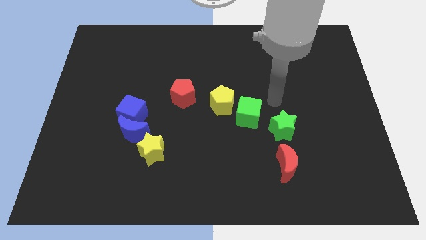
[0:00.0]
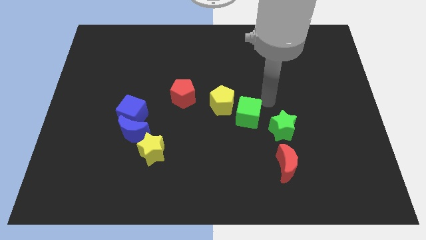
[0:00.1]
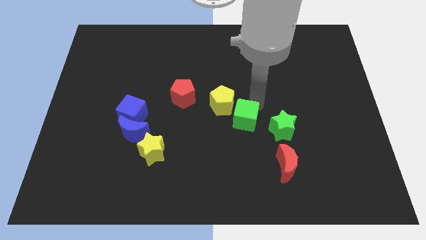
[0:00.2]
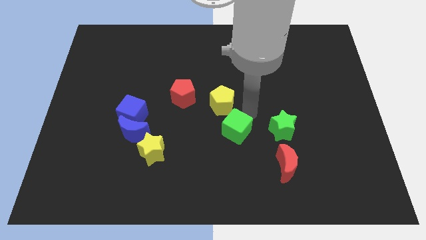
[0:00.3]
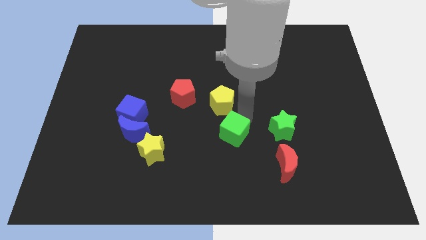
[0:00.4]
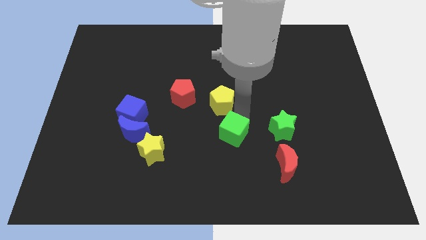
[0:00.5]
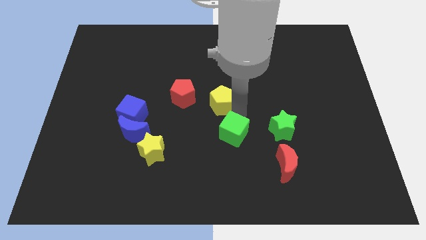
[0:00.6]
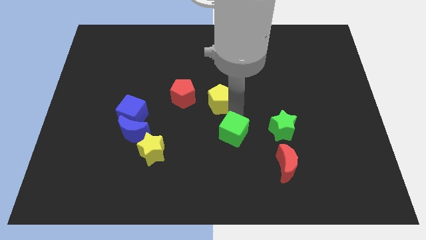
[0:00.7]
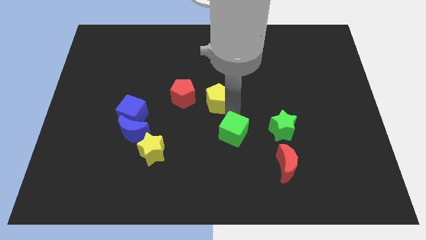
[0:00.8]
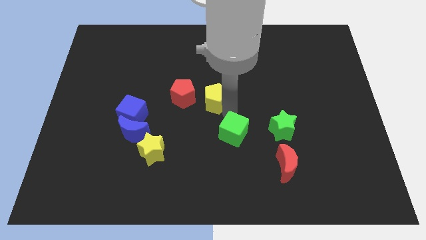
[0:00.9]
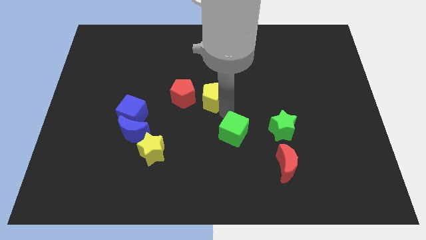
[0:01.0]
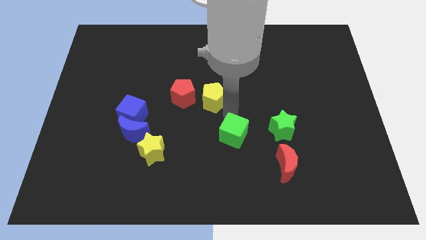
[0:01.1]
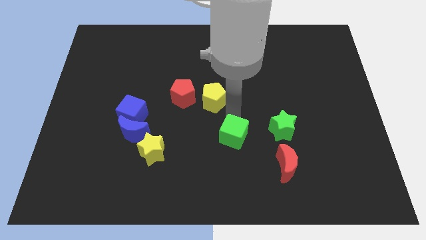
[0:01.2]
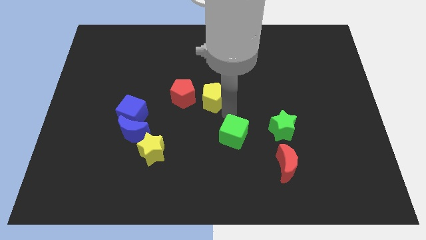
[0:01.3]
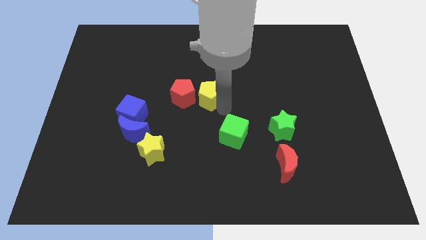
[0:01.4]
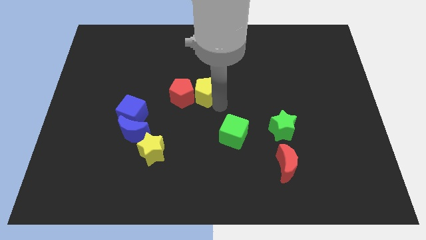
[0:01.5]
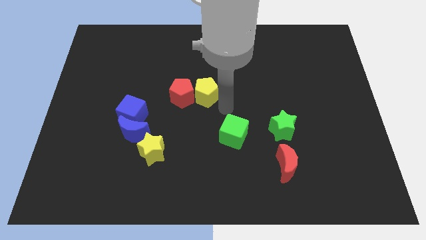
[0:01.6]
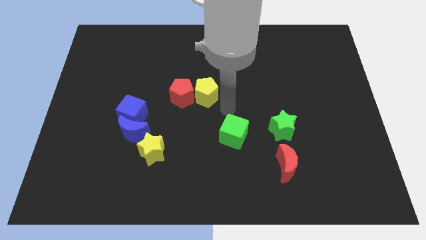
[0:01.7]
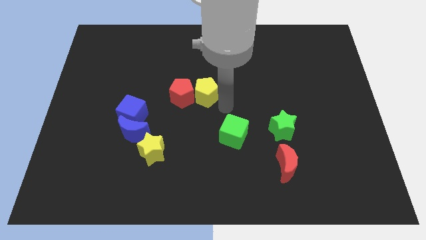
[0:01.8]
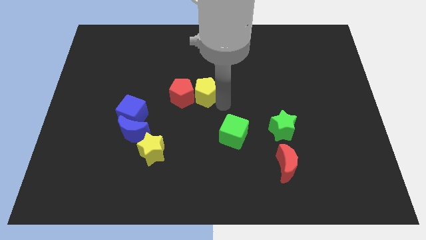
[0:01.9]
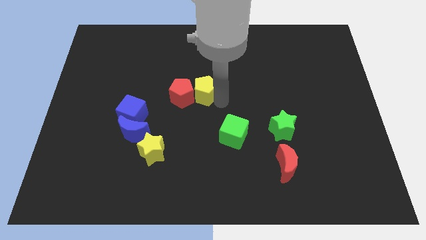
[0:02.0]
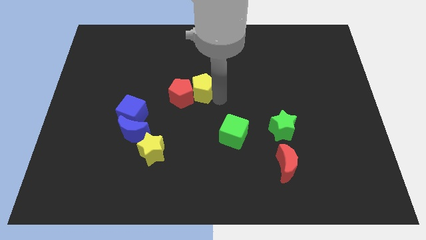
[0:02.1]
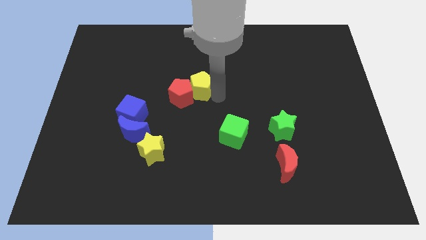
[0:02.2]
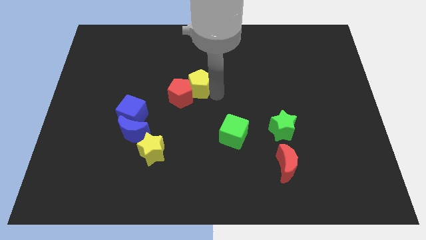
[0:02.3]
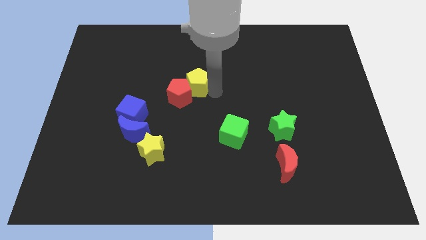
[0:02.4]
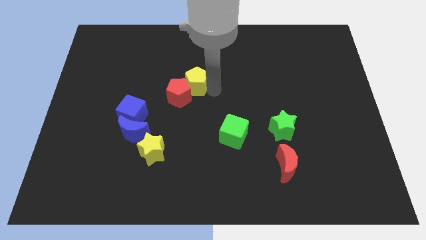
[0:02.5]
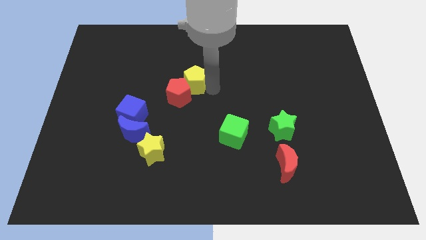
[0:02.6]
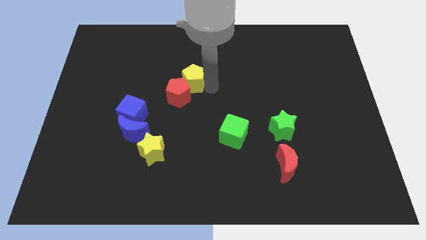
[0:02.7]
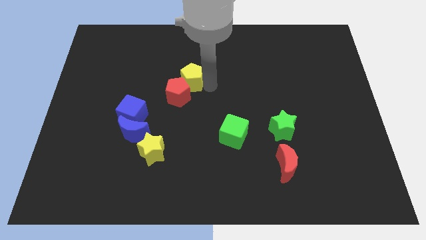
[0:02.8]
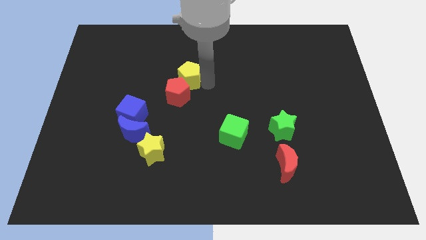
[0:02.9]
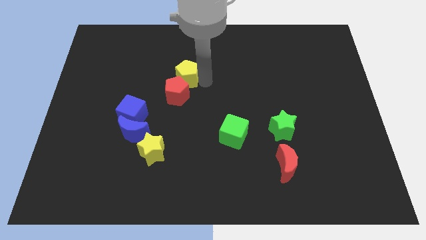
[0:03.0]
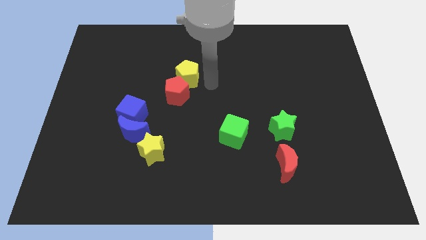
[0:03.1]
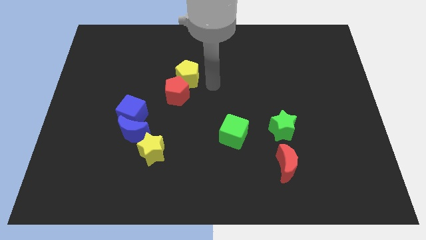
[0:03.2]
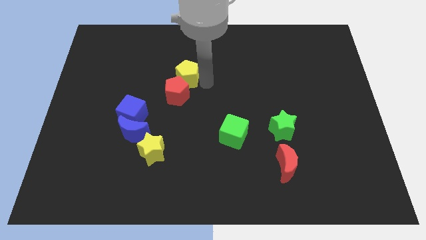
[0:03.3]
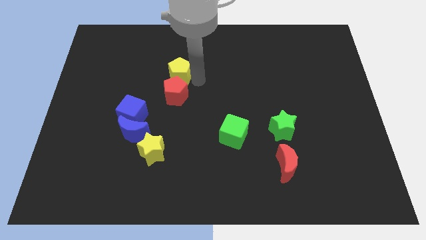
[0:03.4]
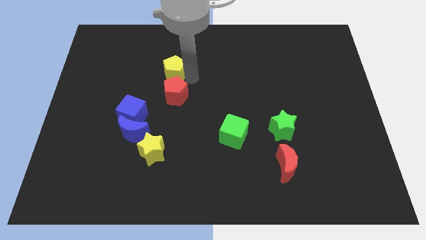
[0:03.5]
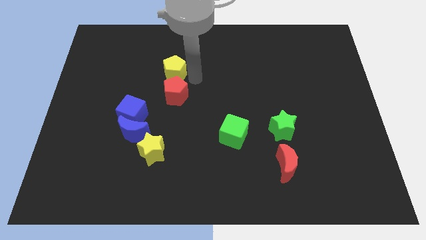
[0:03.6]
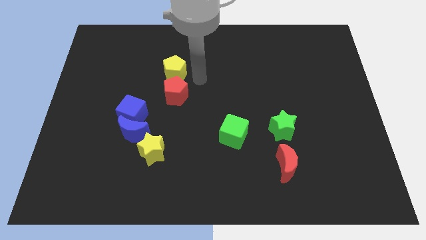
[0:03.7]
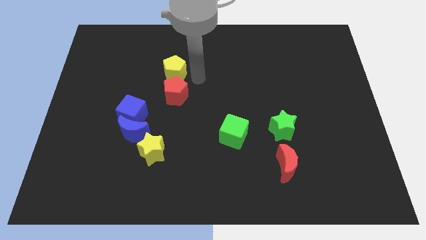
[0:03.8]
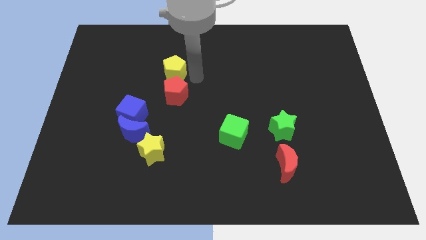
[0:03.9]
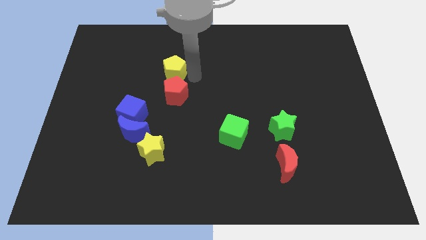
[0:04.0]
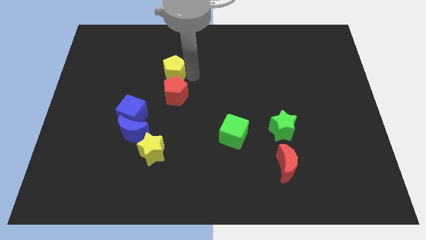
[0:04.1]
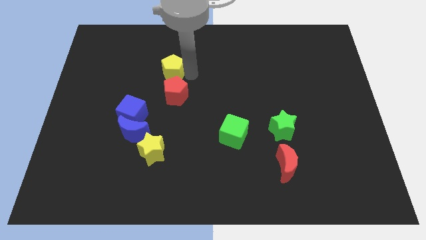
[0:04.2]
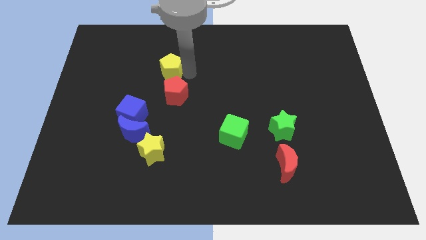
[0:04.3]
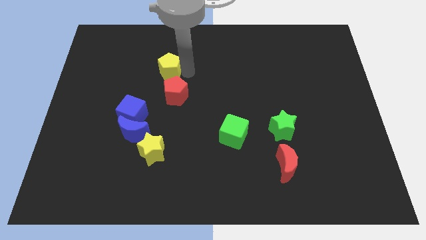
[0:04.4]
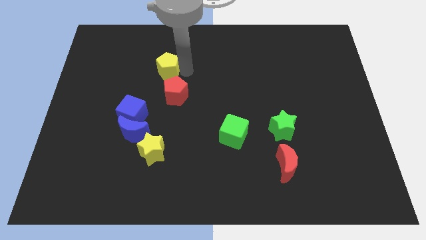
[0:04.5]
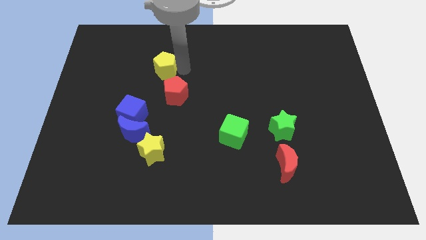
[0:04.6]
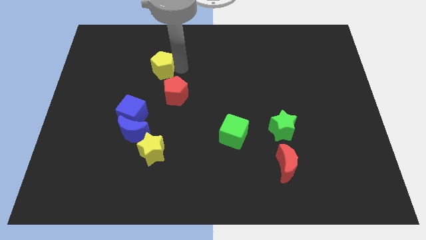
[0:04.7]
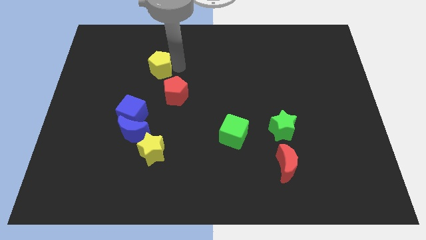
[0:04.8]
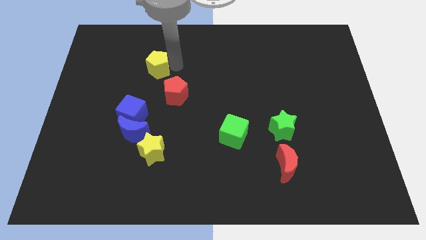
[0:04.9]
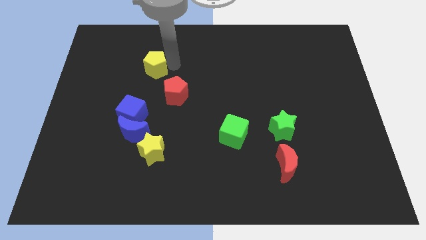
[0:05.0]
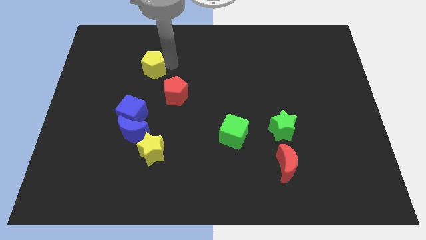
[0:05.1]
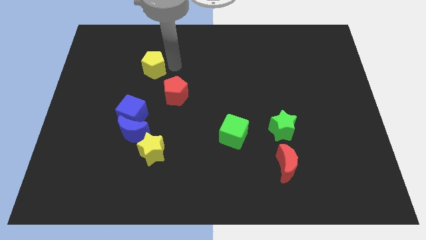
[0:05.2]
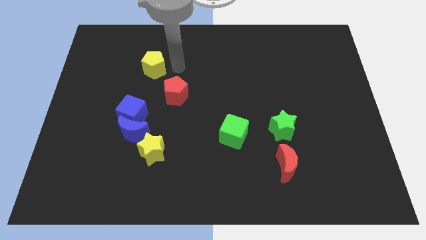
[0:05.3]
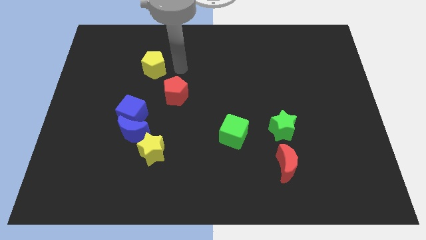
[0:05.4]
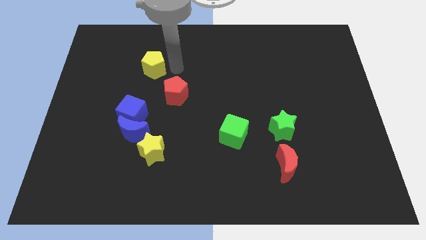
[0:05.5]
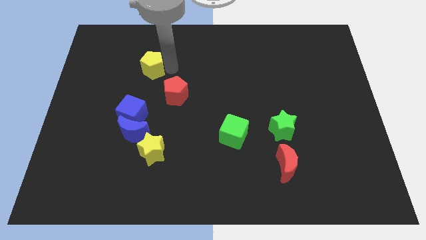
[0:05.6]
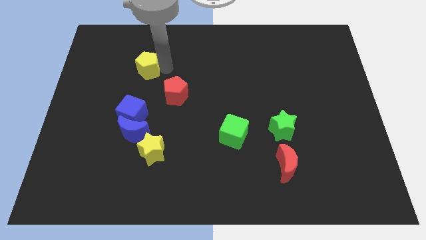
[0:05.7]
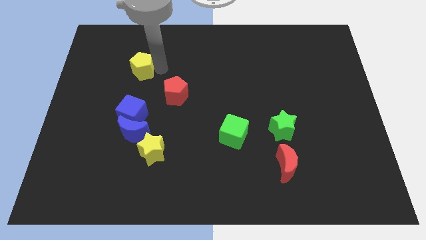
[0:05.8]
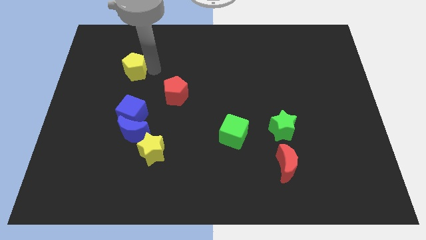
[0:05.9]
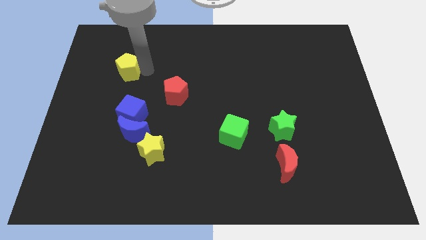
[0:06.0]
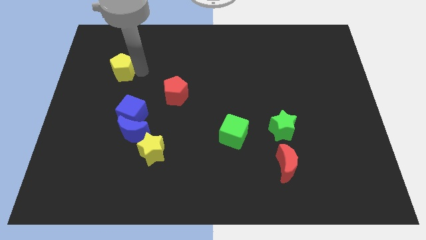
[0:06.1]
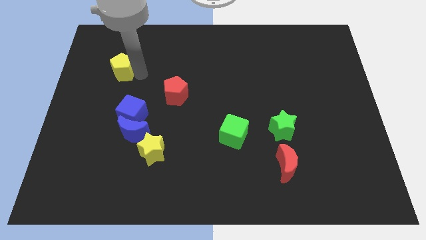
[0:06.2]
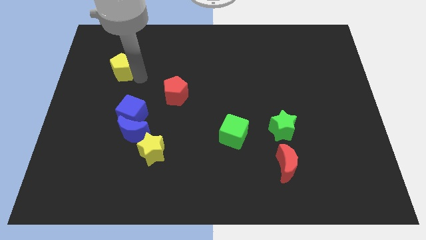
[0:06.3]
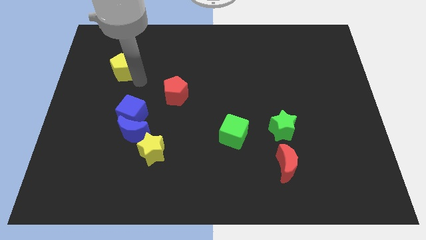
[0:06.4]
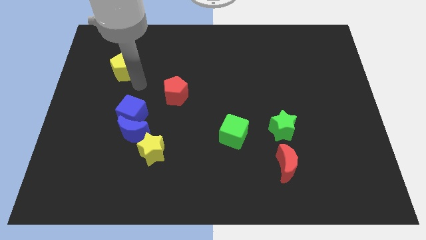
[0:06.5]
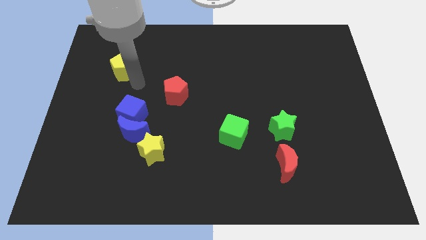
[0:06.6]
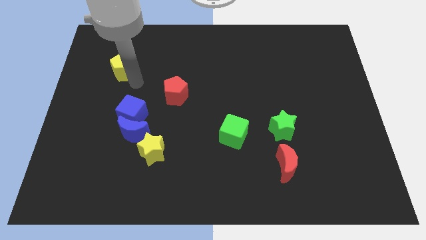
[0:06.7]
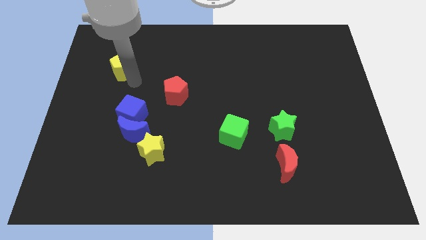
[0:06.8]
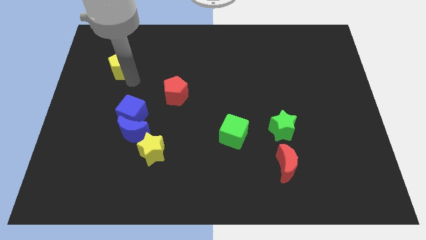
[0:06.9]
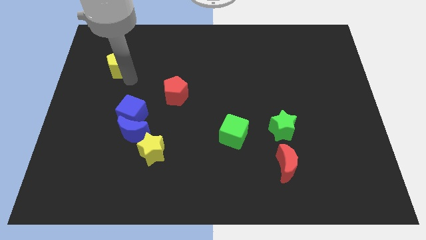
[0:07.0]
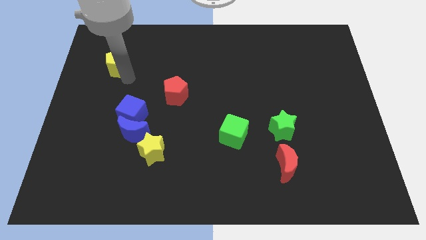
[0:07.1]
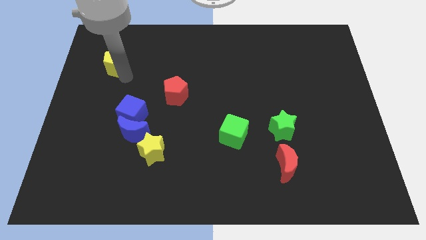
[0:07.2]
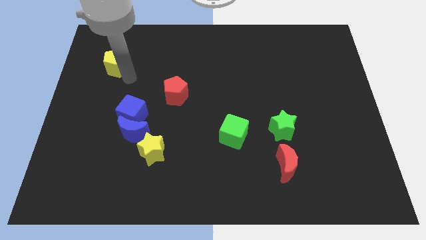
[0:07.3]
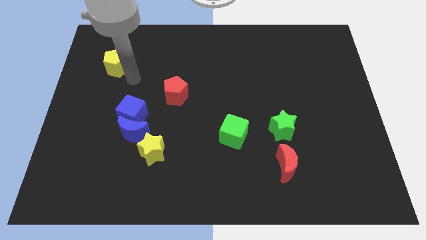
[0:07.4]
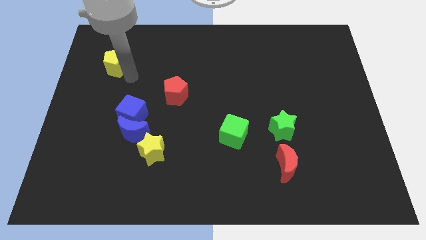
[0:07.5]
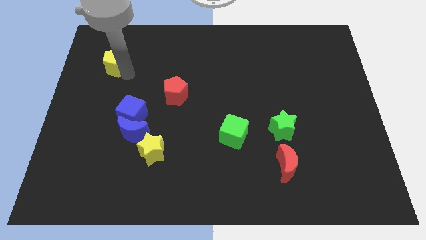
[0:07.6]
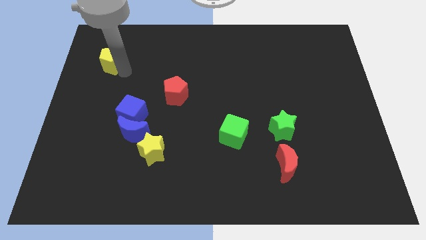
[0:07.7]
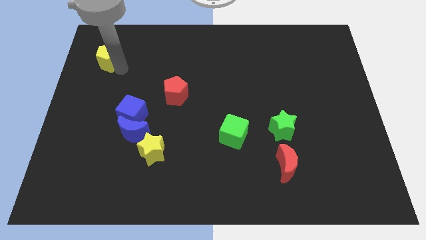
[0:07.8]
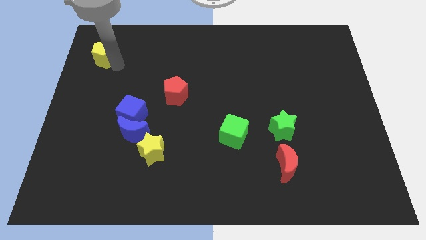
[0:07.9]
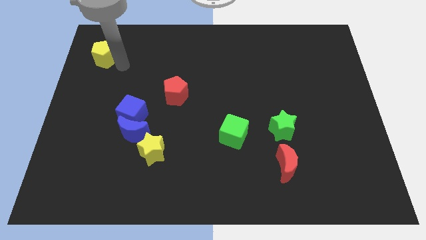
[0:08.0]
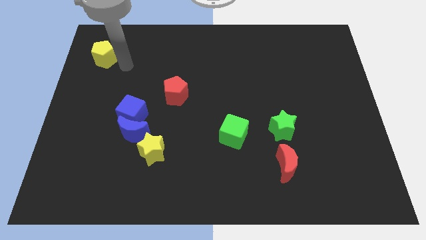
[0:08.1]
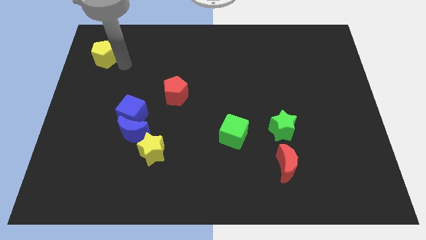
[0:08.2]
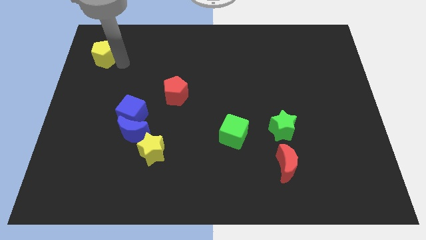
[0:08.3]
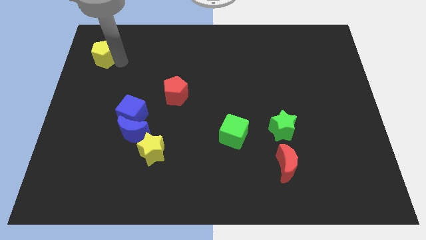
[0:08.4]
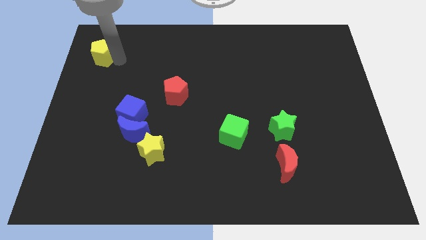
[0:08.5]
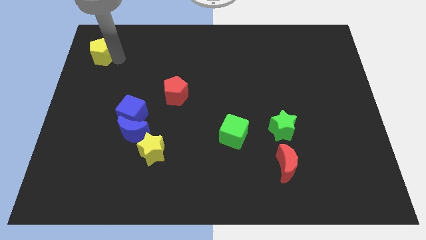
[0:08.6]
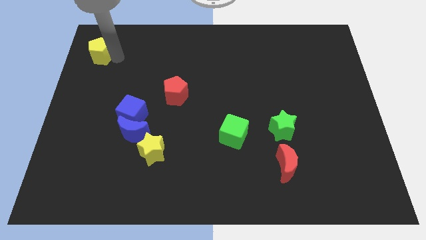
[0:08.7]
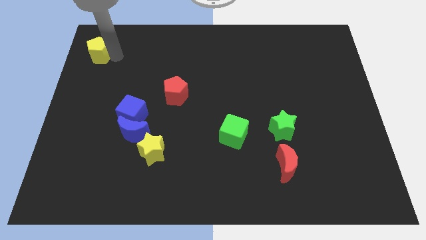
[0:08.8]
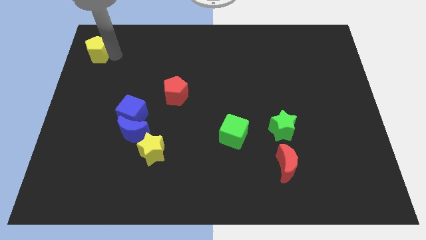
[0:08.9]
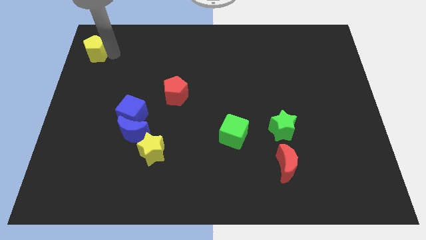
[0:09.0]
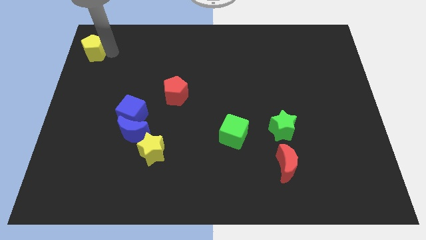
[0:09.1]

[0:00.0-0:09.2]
move the yellow pentagon to the top left corner
